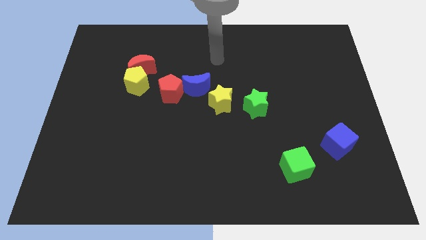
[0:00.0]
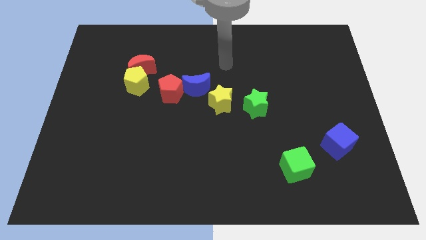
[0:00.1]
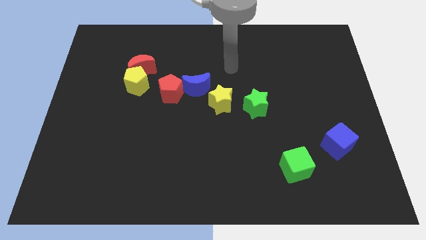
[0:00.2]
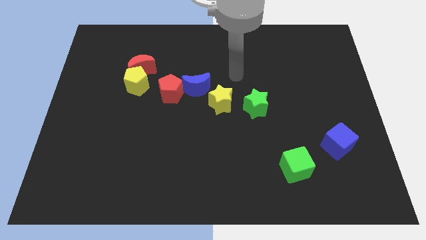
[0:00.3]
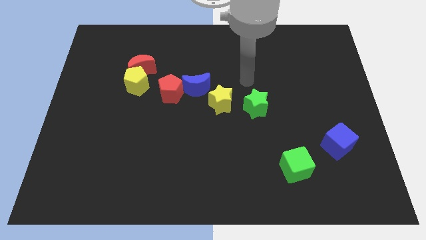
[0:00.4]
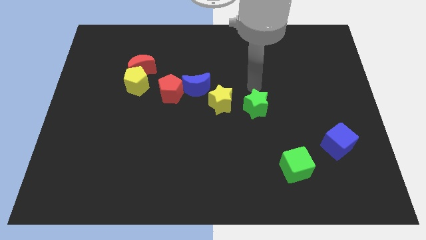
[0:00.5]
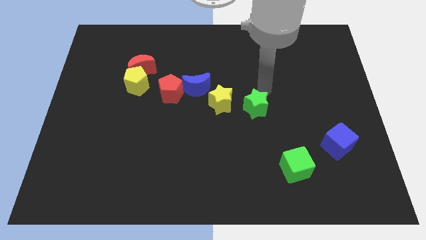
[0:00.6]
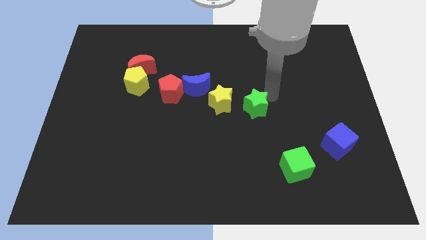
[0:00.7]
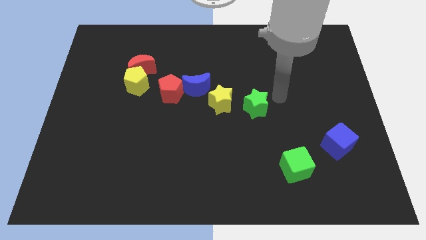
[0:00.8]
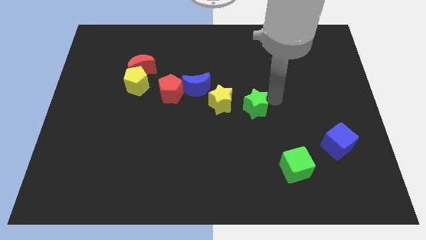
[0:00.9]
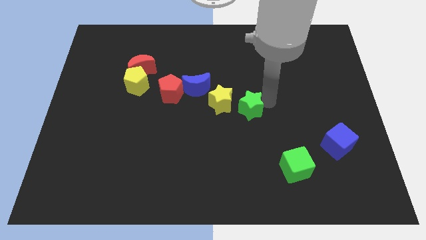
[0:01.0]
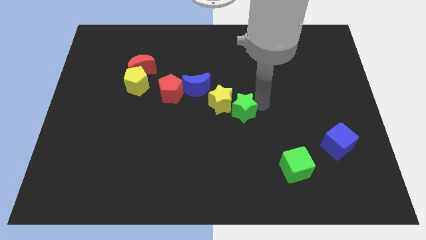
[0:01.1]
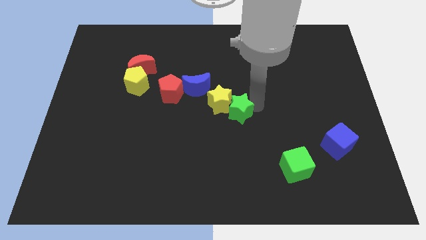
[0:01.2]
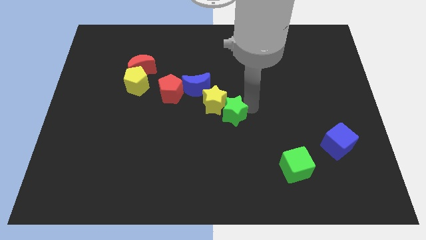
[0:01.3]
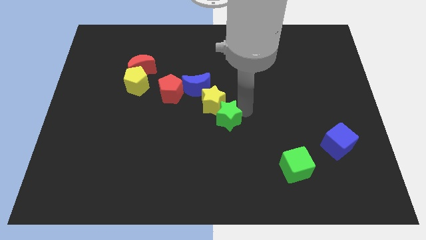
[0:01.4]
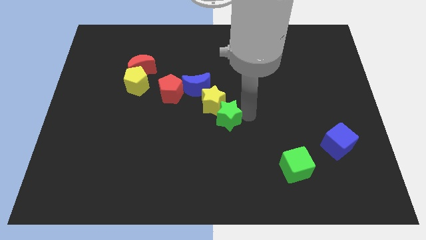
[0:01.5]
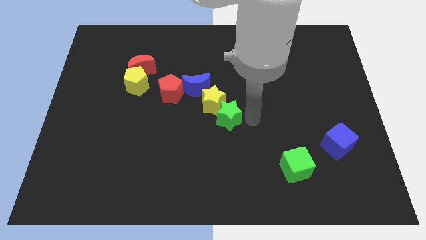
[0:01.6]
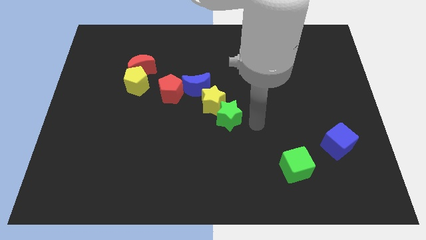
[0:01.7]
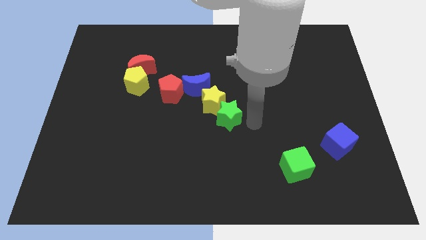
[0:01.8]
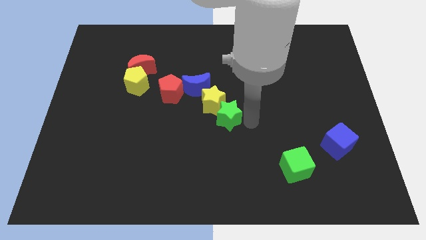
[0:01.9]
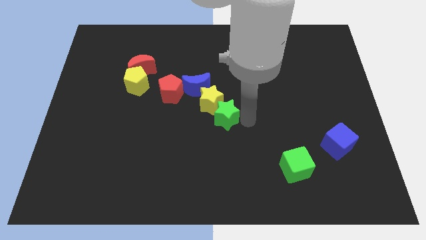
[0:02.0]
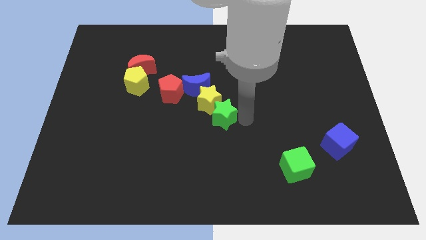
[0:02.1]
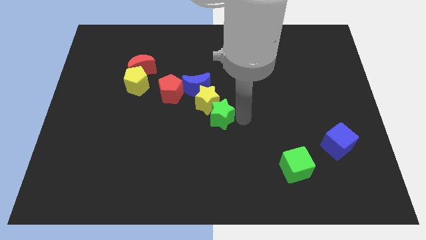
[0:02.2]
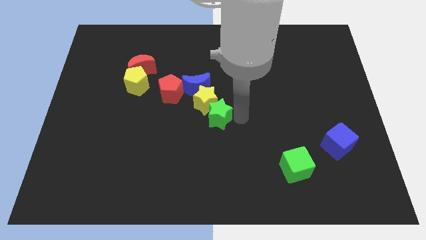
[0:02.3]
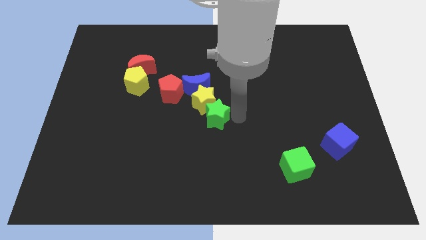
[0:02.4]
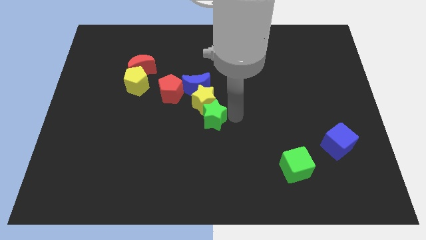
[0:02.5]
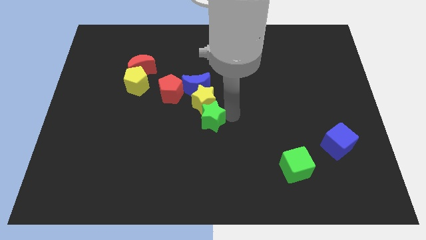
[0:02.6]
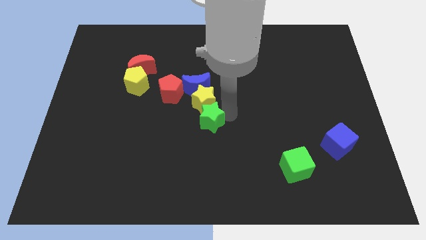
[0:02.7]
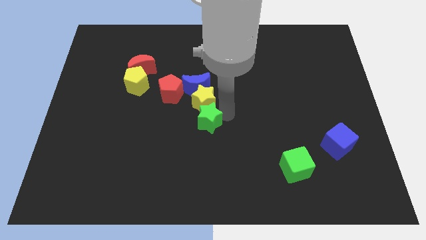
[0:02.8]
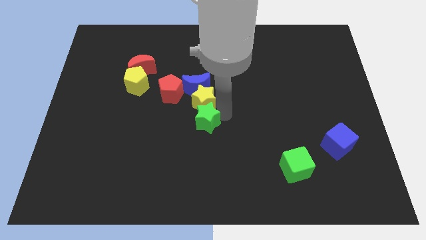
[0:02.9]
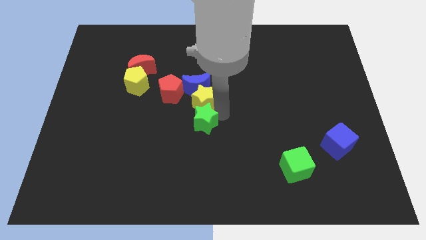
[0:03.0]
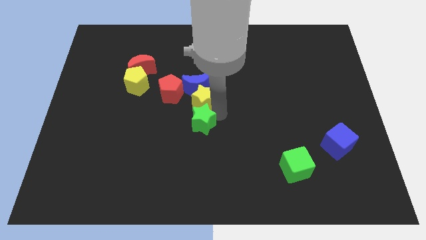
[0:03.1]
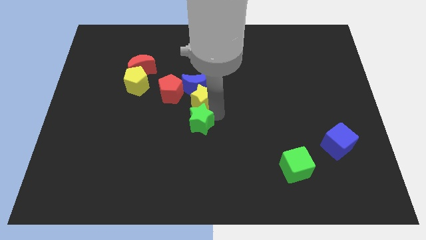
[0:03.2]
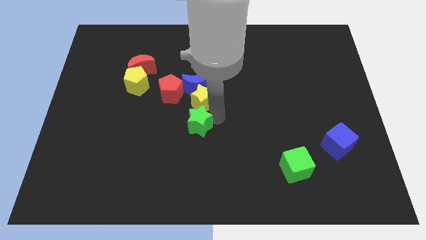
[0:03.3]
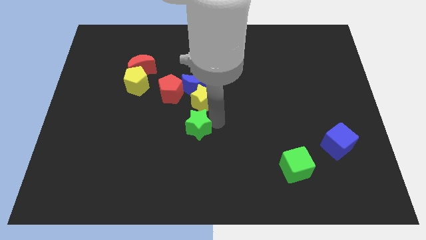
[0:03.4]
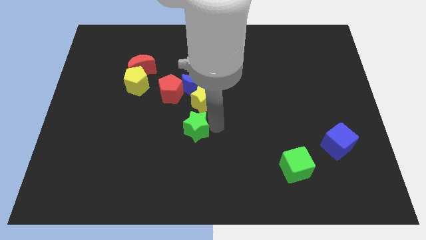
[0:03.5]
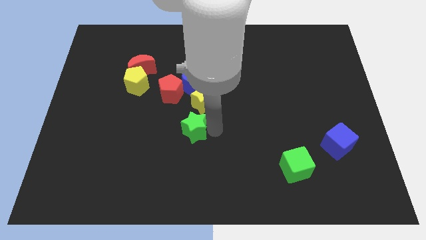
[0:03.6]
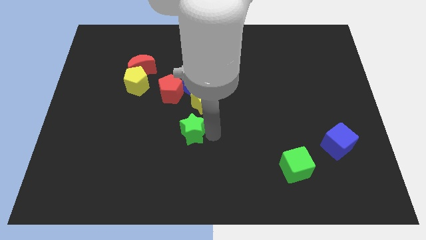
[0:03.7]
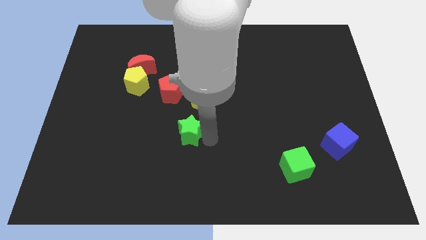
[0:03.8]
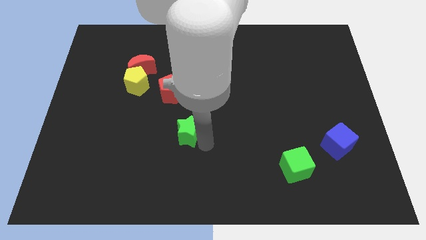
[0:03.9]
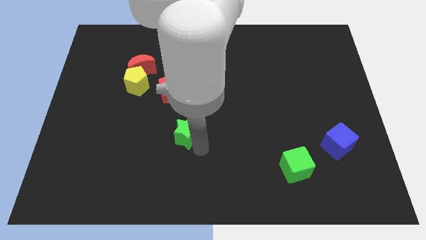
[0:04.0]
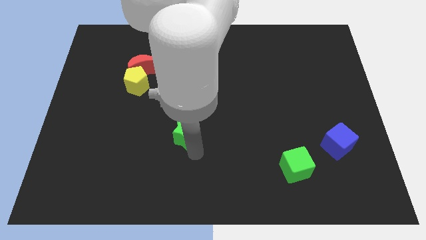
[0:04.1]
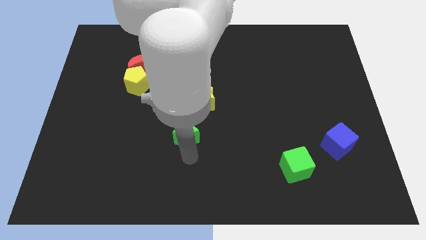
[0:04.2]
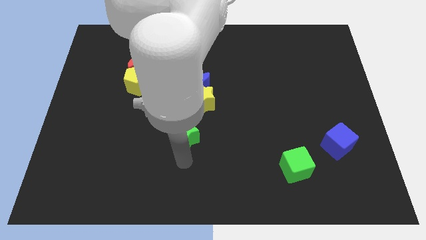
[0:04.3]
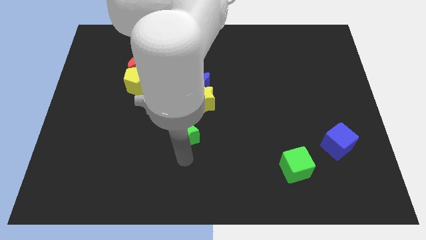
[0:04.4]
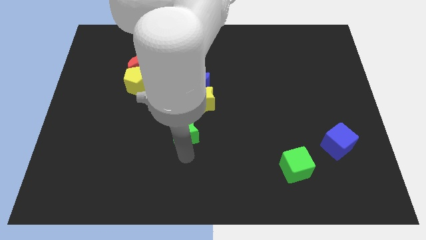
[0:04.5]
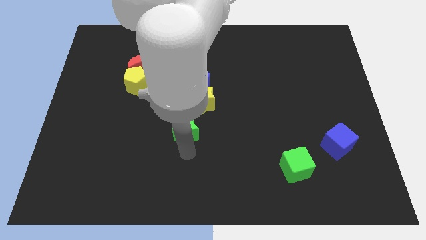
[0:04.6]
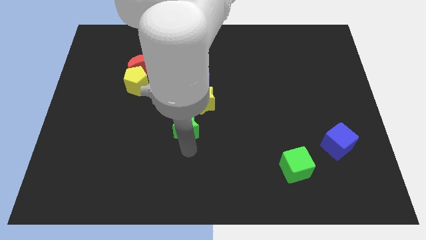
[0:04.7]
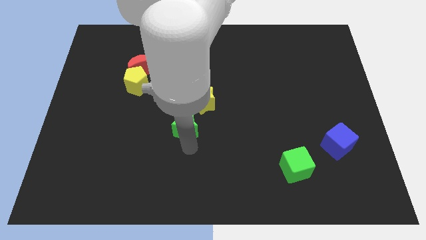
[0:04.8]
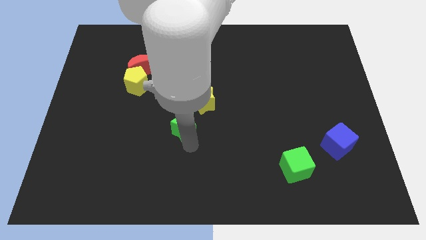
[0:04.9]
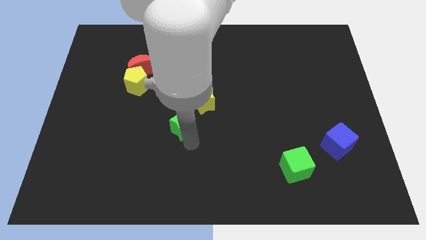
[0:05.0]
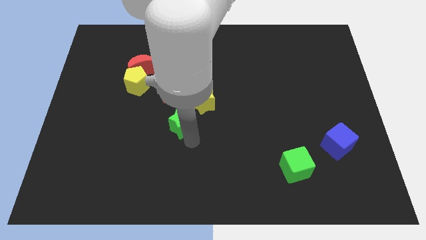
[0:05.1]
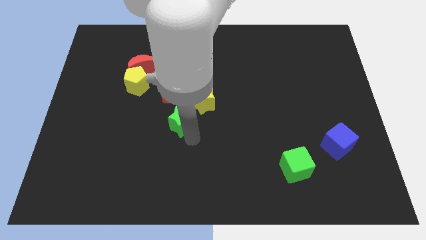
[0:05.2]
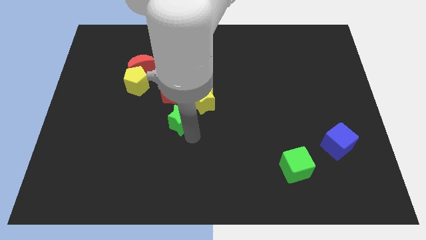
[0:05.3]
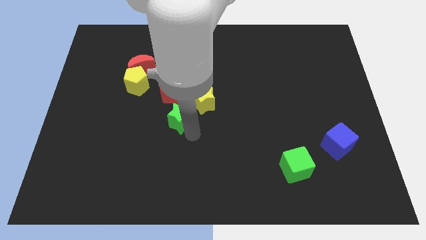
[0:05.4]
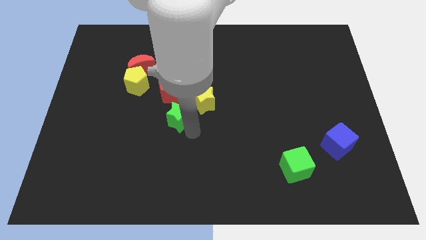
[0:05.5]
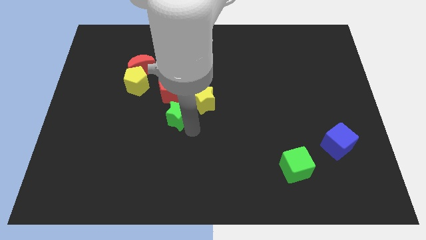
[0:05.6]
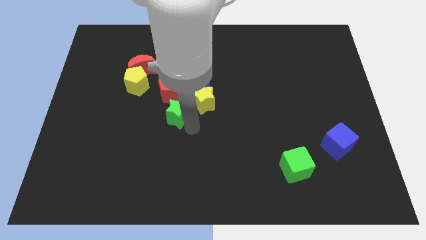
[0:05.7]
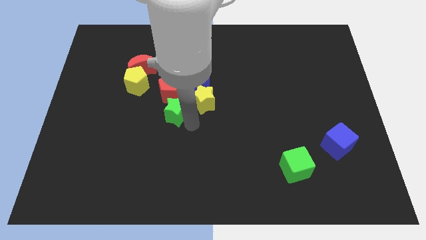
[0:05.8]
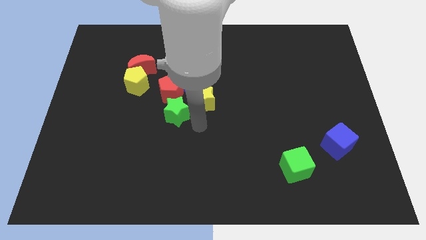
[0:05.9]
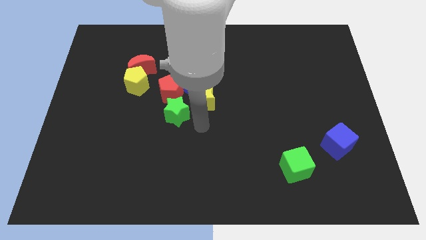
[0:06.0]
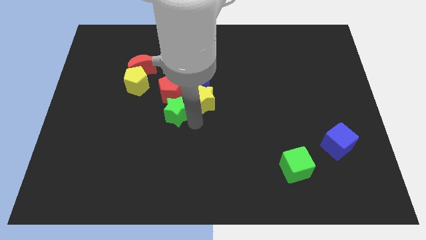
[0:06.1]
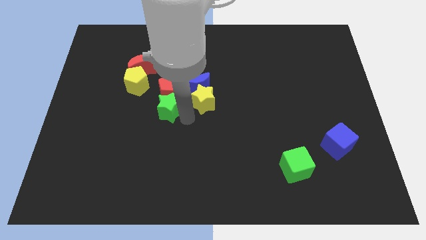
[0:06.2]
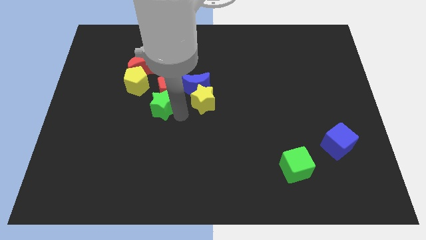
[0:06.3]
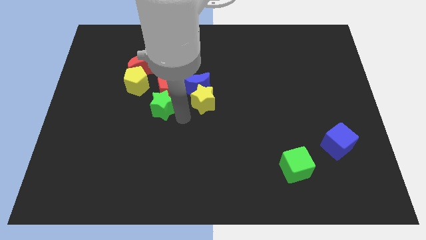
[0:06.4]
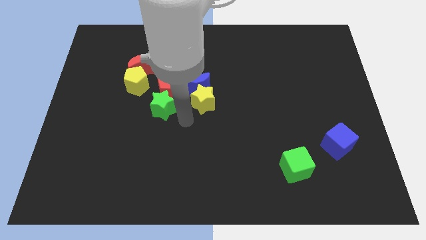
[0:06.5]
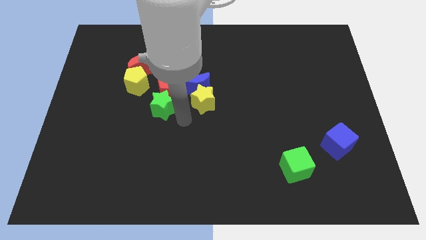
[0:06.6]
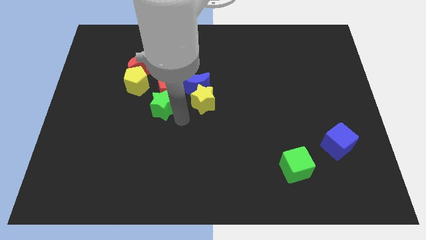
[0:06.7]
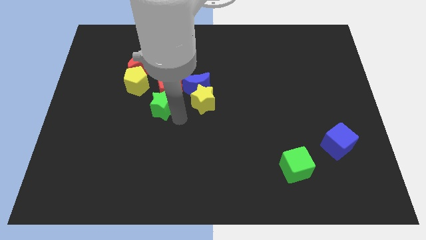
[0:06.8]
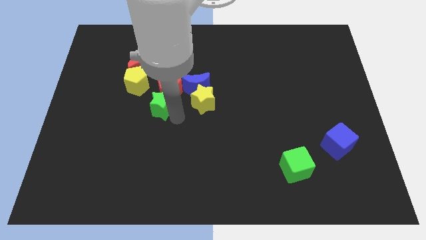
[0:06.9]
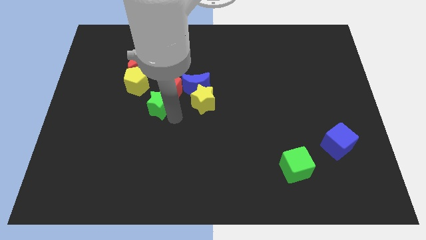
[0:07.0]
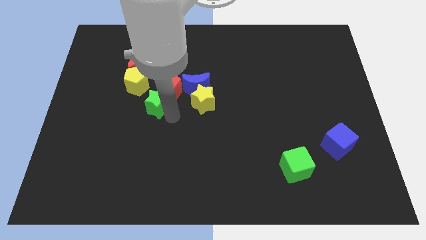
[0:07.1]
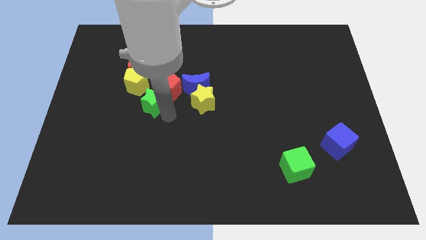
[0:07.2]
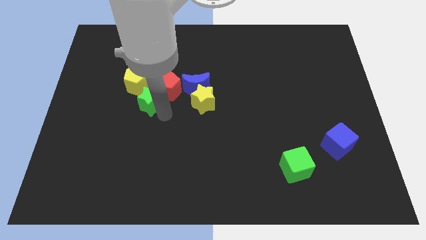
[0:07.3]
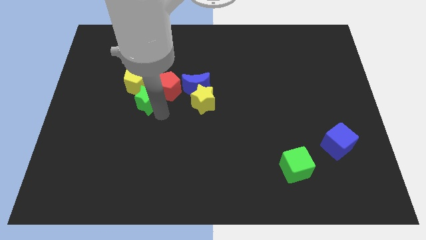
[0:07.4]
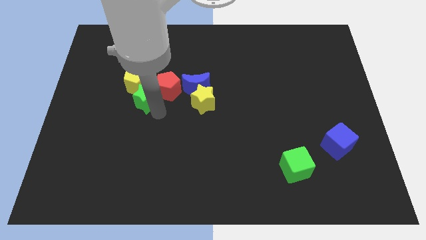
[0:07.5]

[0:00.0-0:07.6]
put the green star to the yellow pentagon
